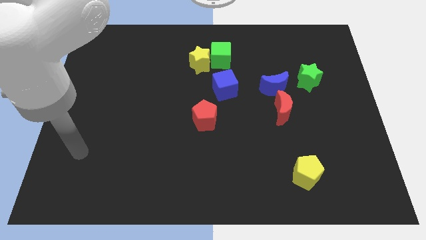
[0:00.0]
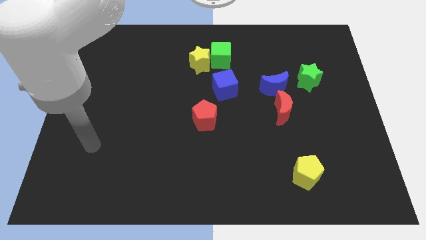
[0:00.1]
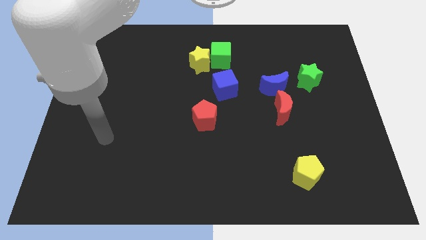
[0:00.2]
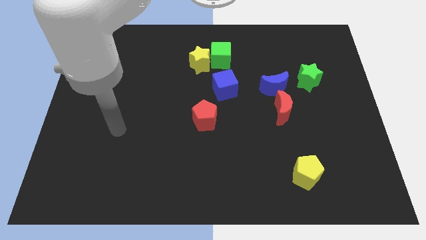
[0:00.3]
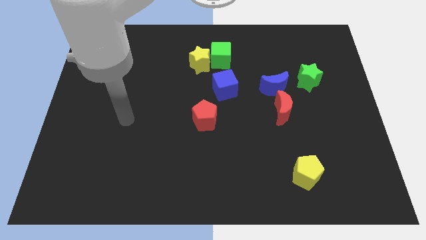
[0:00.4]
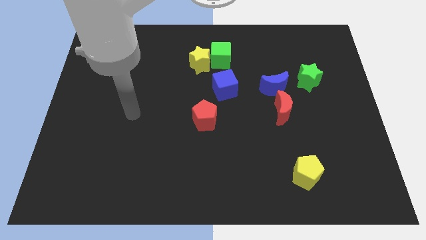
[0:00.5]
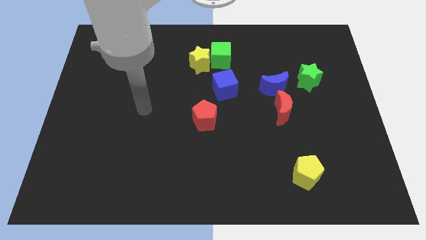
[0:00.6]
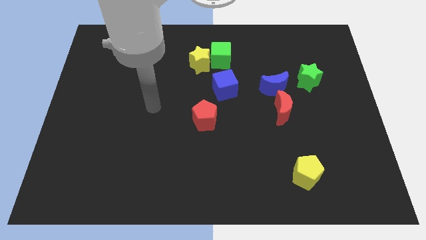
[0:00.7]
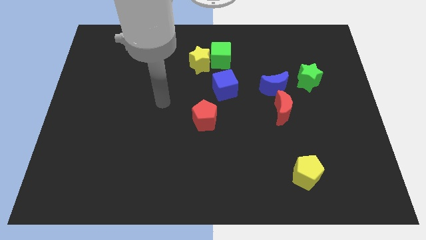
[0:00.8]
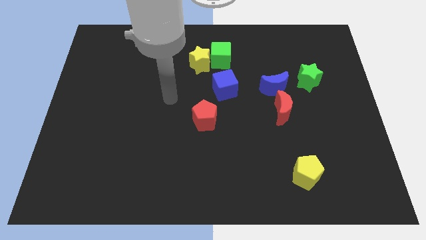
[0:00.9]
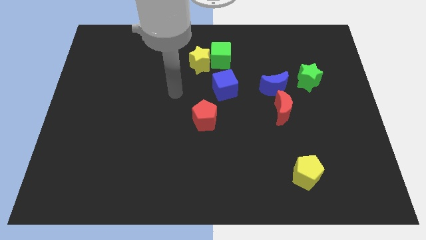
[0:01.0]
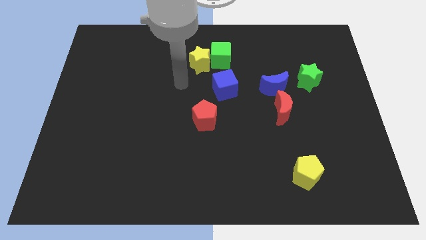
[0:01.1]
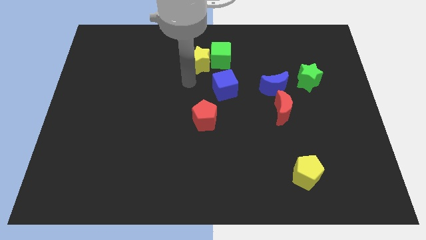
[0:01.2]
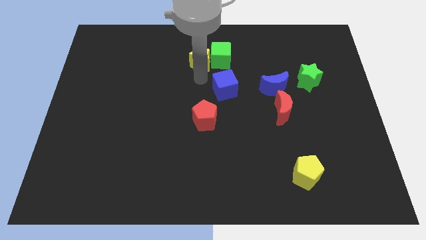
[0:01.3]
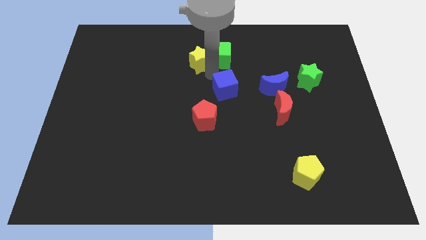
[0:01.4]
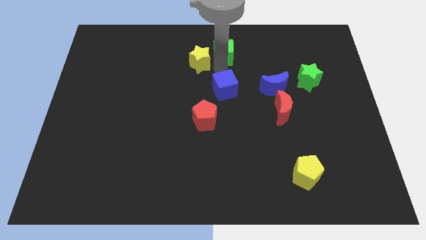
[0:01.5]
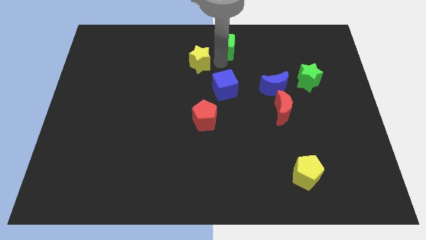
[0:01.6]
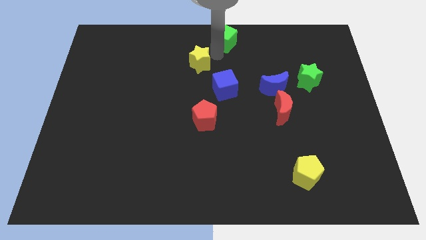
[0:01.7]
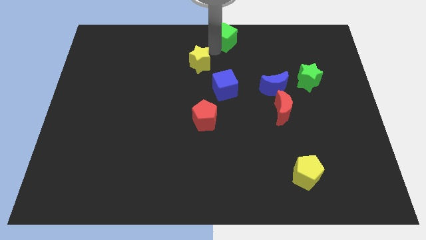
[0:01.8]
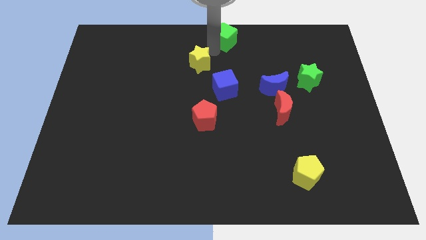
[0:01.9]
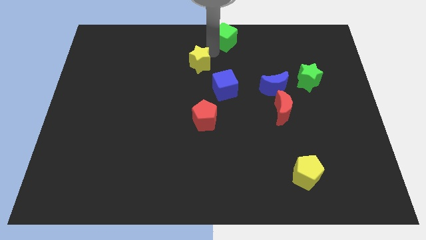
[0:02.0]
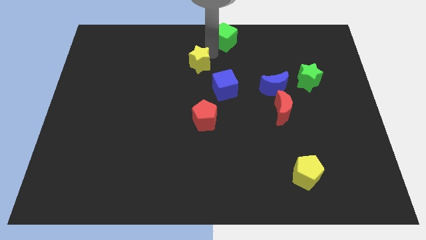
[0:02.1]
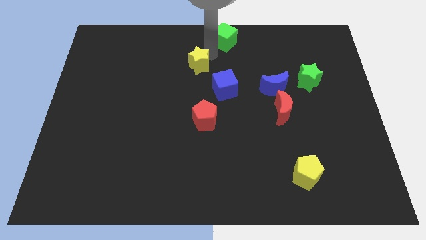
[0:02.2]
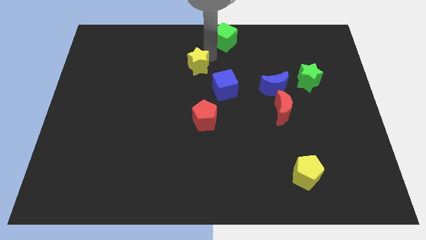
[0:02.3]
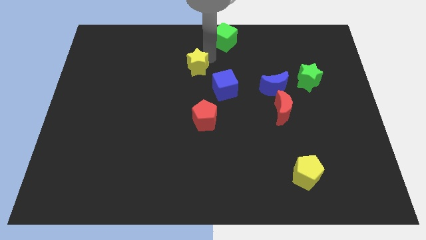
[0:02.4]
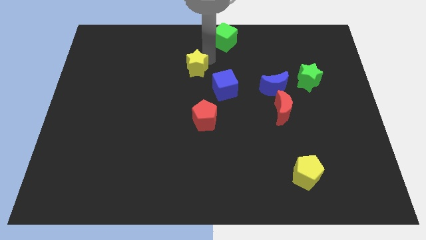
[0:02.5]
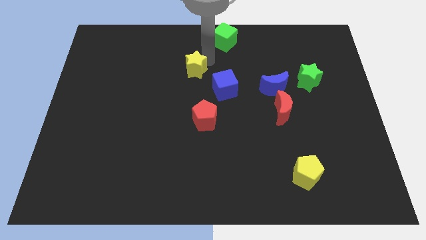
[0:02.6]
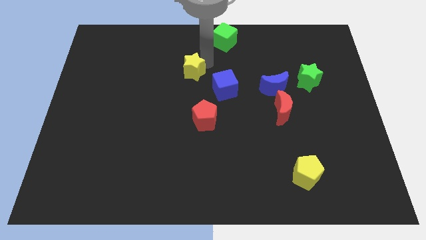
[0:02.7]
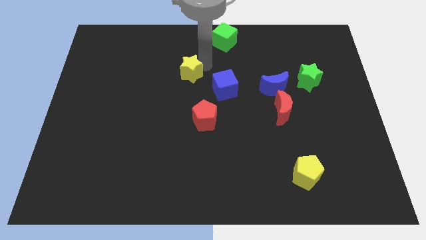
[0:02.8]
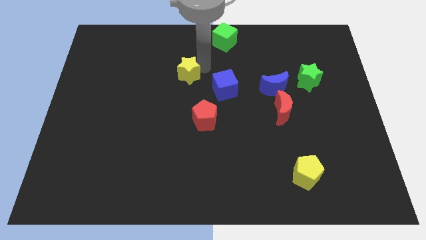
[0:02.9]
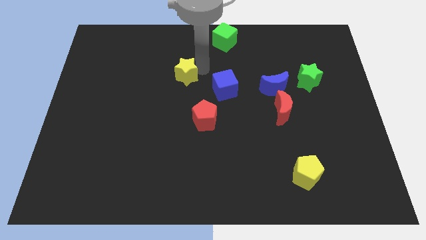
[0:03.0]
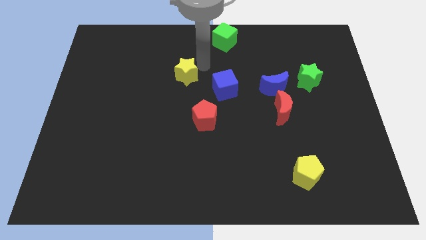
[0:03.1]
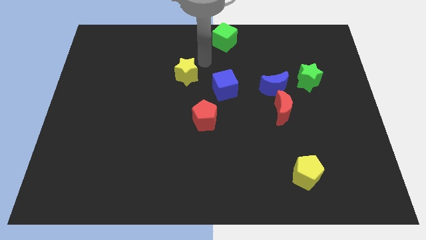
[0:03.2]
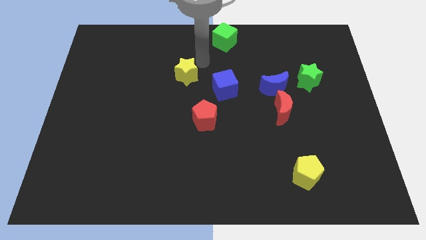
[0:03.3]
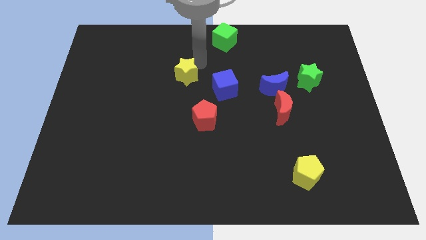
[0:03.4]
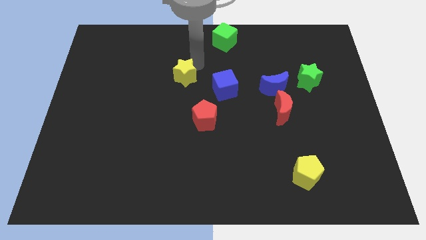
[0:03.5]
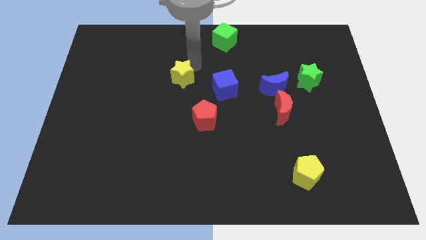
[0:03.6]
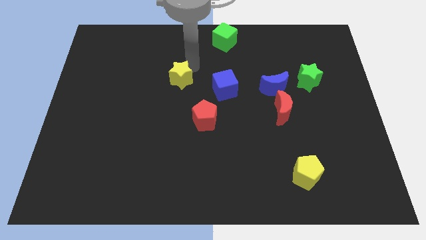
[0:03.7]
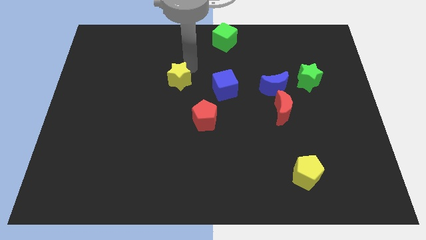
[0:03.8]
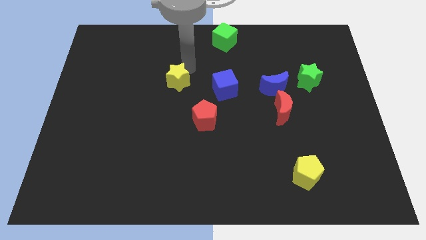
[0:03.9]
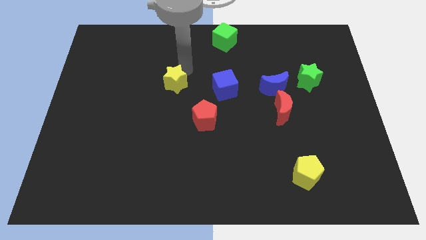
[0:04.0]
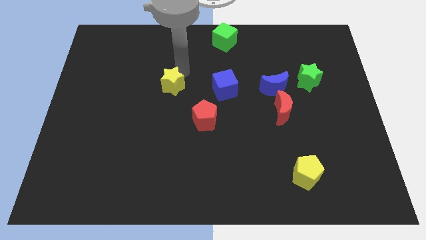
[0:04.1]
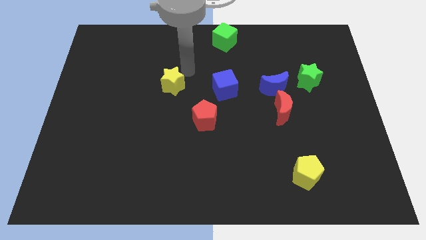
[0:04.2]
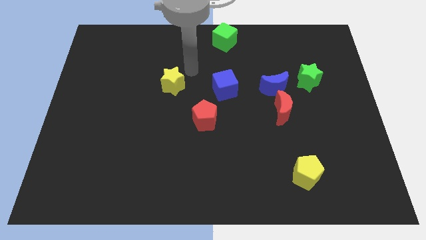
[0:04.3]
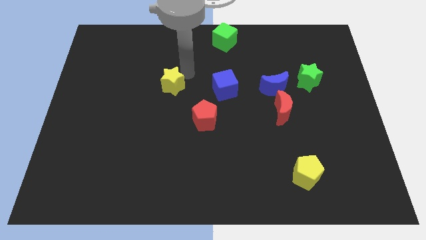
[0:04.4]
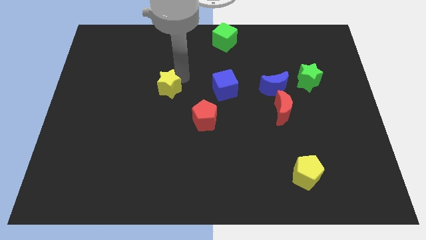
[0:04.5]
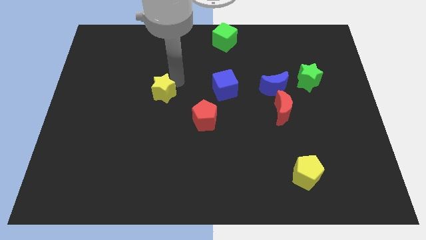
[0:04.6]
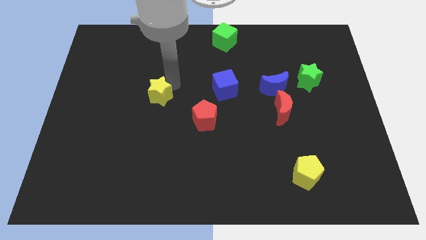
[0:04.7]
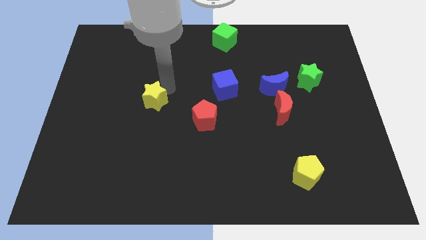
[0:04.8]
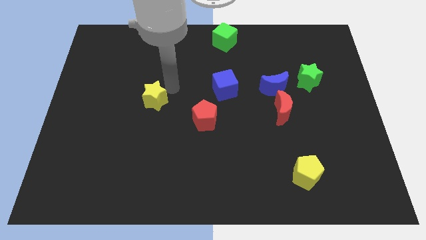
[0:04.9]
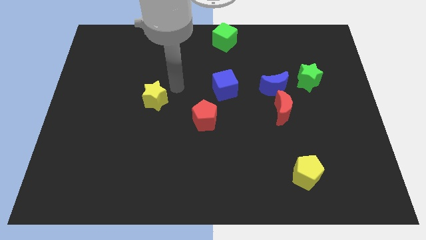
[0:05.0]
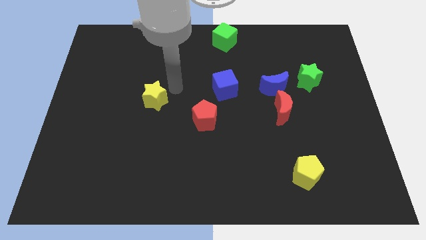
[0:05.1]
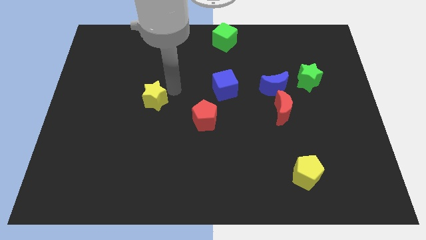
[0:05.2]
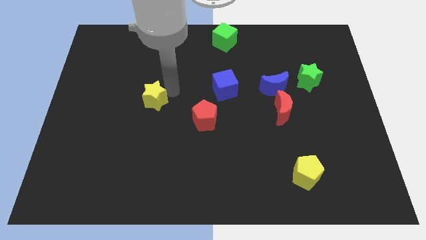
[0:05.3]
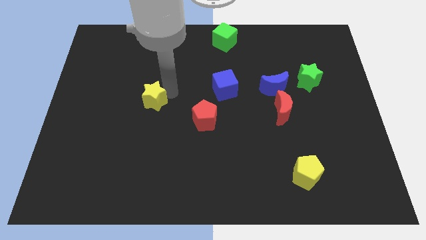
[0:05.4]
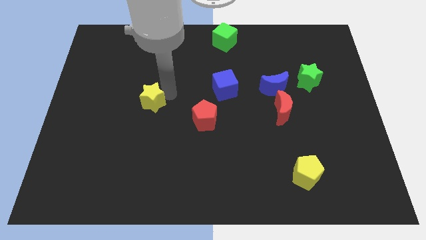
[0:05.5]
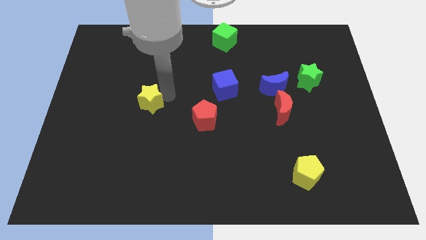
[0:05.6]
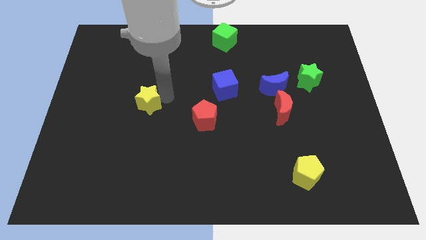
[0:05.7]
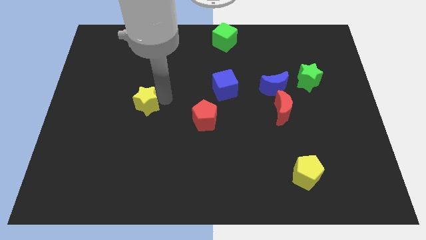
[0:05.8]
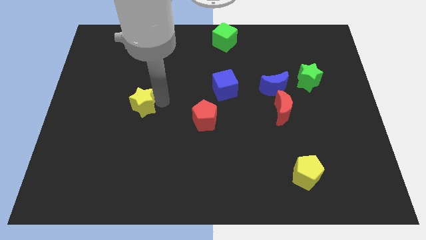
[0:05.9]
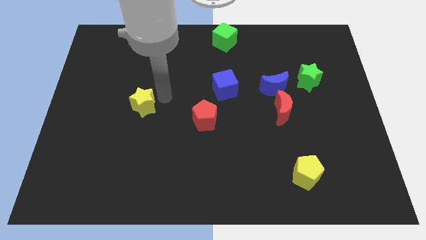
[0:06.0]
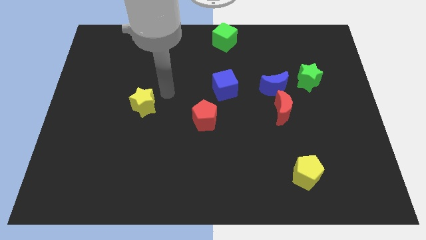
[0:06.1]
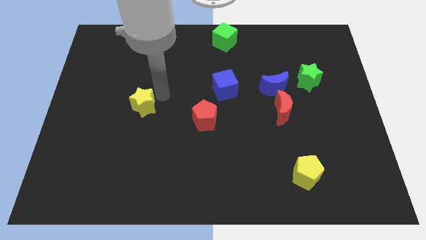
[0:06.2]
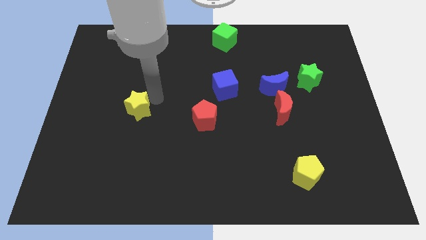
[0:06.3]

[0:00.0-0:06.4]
slide the yellow star down and then to the left

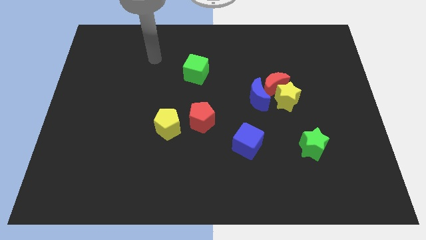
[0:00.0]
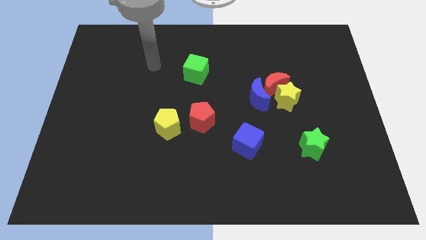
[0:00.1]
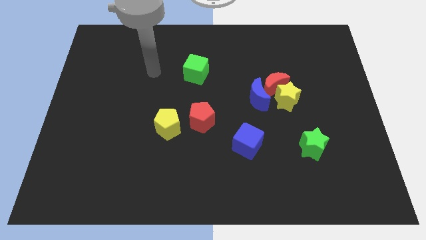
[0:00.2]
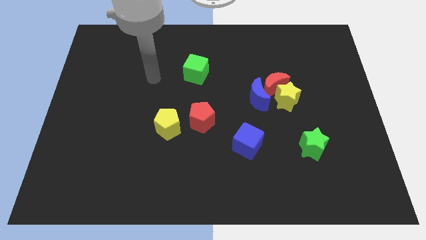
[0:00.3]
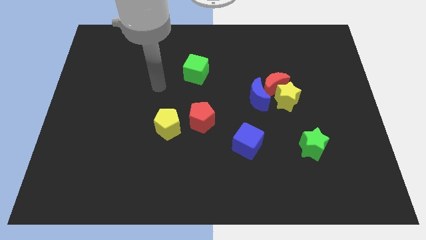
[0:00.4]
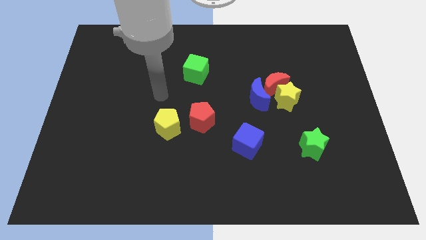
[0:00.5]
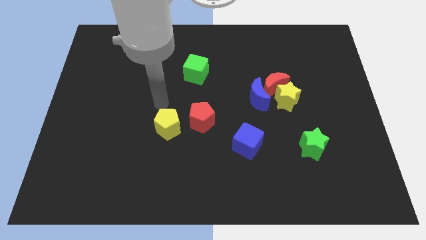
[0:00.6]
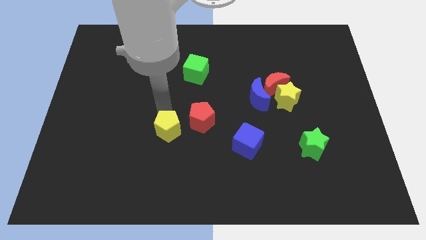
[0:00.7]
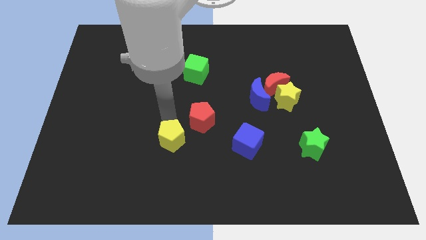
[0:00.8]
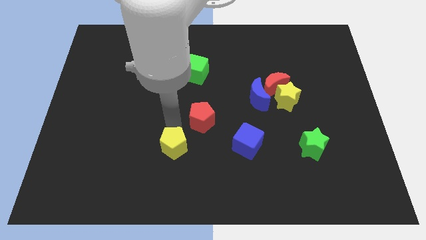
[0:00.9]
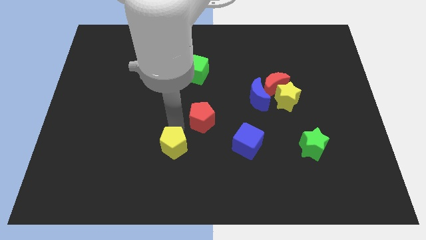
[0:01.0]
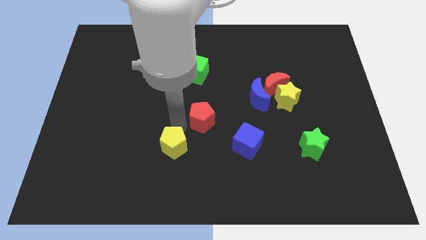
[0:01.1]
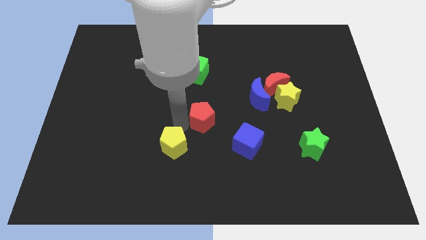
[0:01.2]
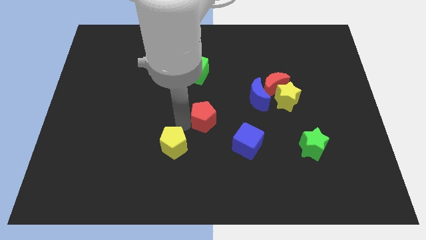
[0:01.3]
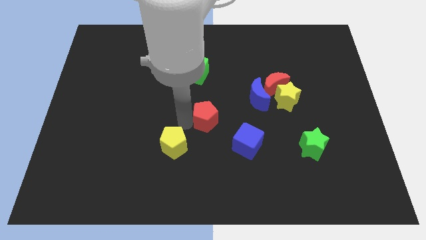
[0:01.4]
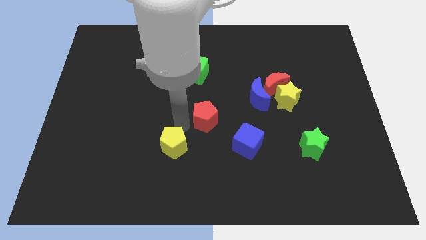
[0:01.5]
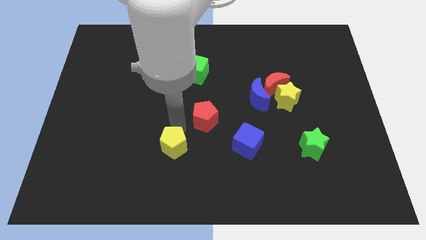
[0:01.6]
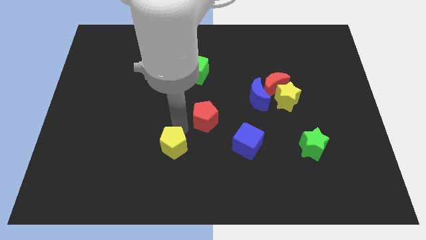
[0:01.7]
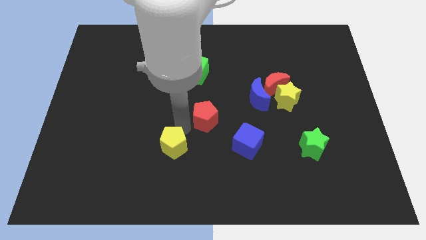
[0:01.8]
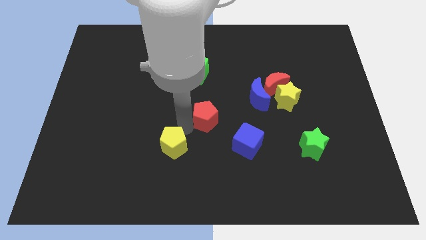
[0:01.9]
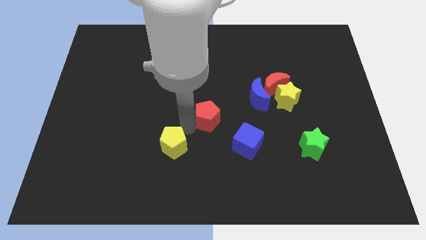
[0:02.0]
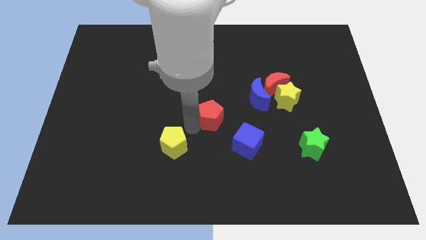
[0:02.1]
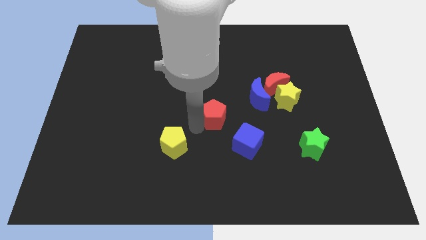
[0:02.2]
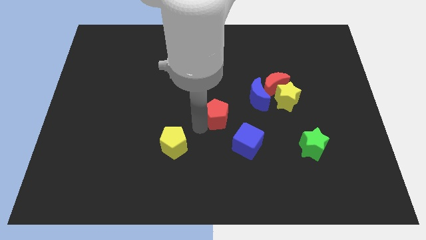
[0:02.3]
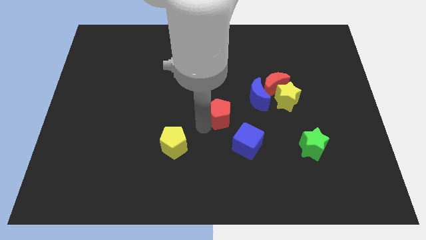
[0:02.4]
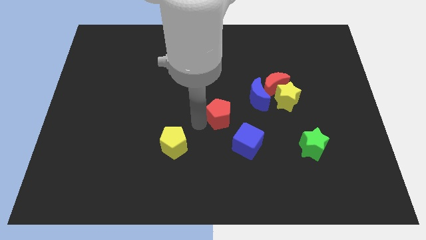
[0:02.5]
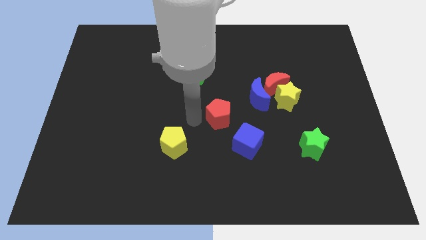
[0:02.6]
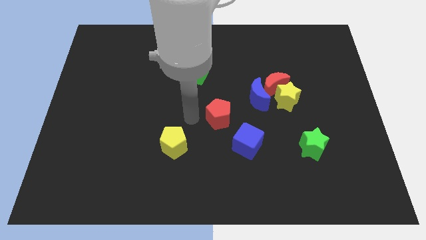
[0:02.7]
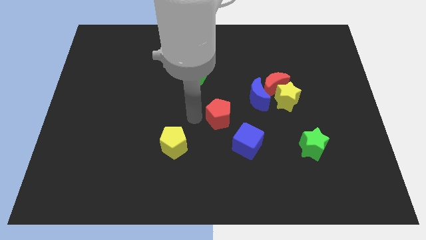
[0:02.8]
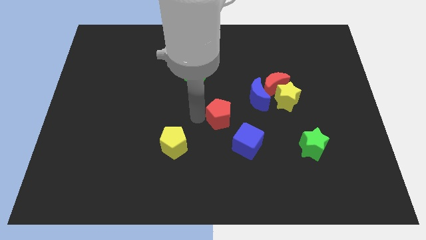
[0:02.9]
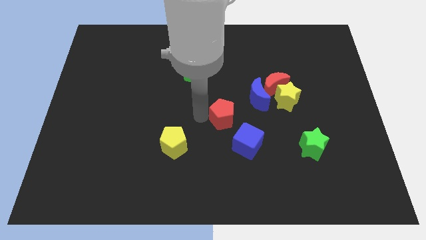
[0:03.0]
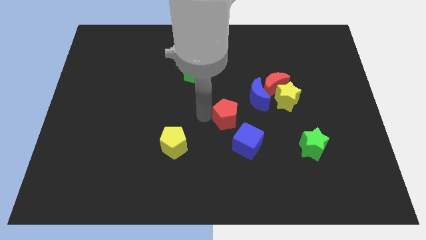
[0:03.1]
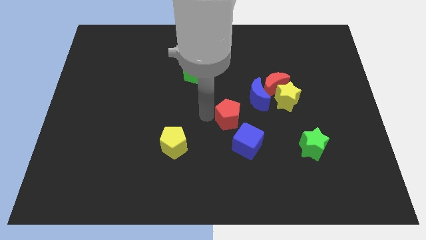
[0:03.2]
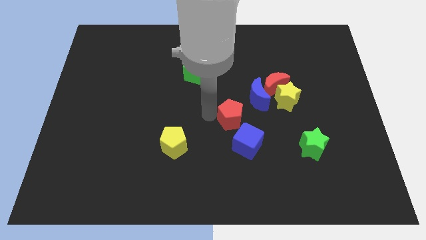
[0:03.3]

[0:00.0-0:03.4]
slightly move the red pentagon to the right
